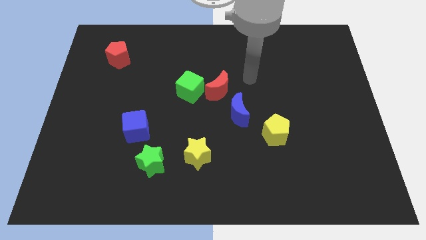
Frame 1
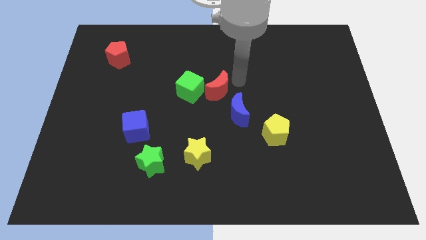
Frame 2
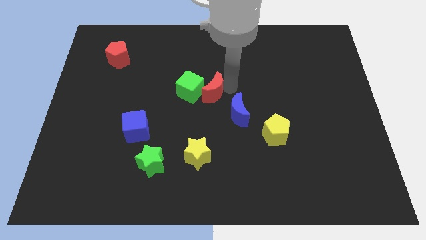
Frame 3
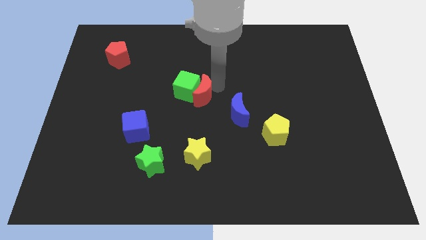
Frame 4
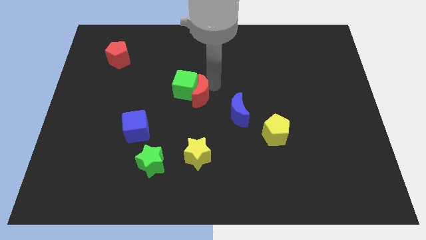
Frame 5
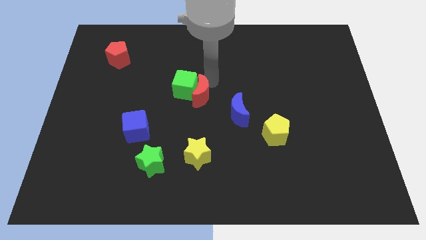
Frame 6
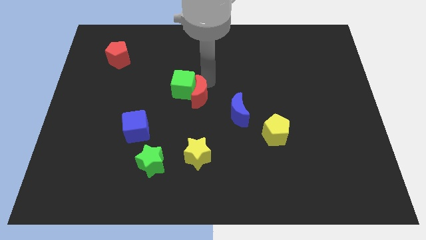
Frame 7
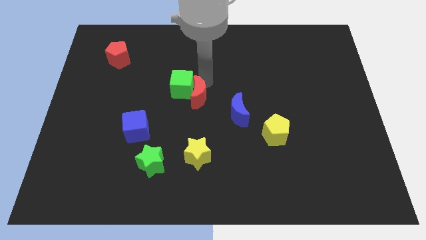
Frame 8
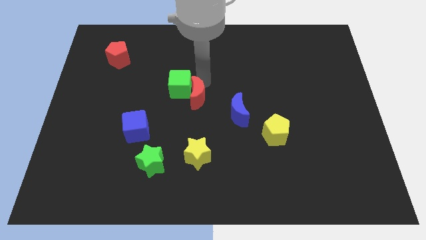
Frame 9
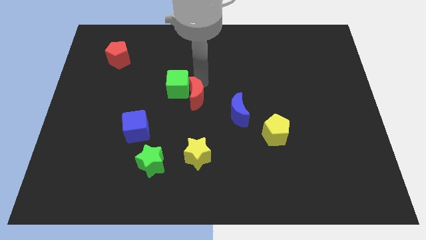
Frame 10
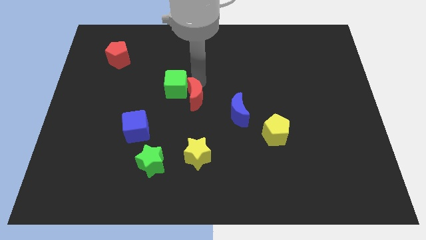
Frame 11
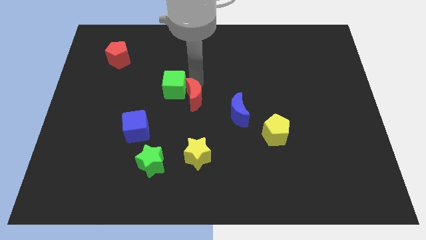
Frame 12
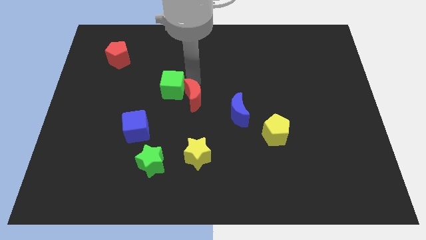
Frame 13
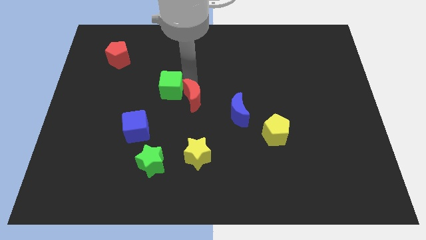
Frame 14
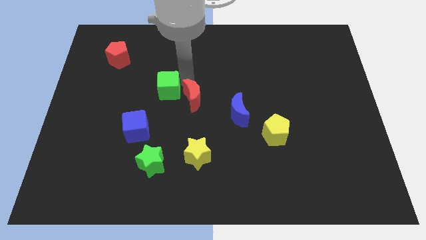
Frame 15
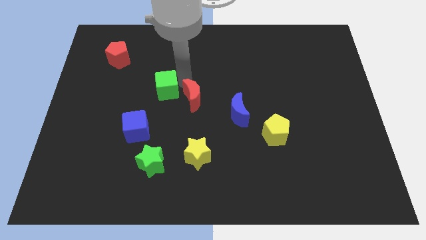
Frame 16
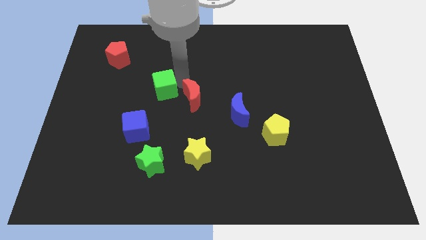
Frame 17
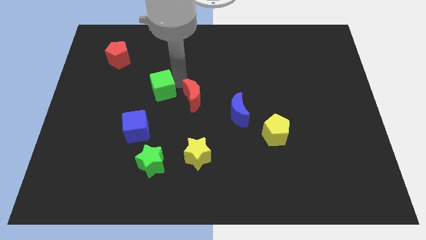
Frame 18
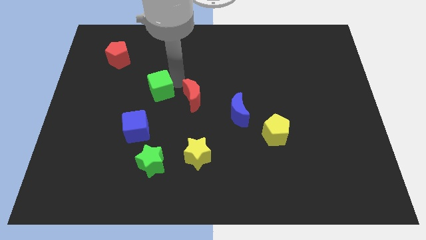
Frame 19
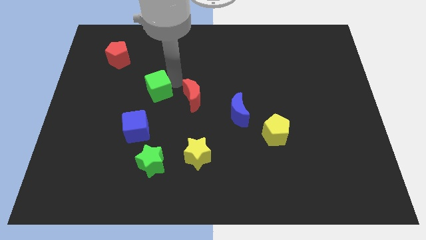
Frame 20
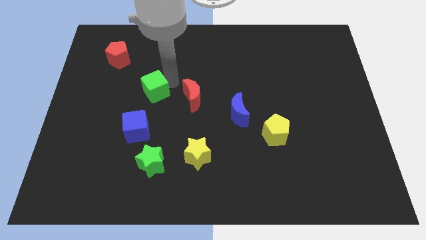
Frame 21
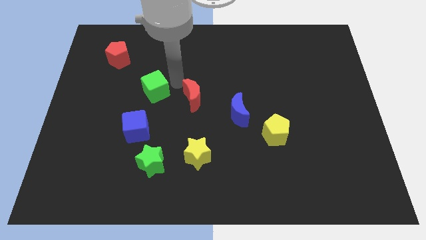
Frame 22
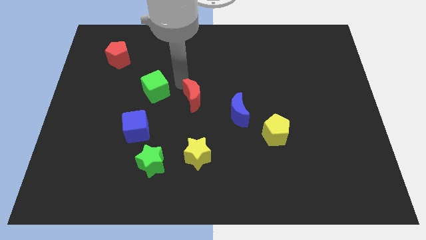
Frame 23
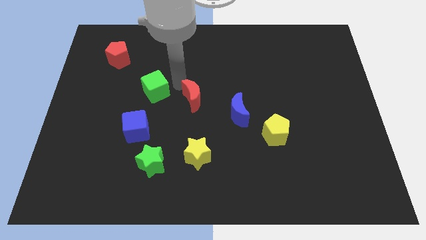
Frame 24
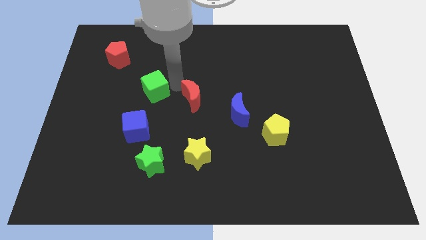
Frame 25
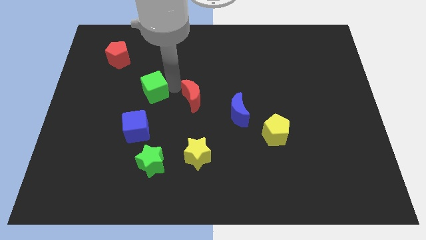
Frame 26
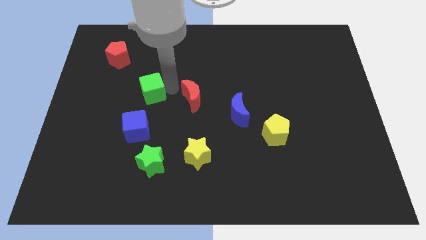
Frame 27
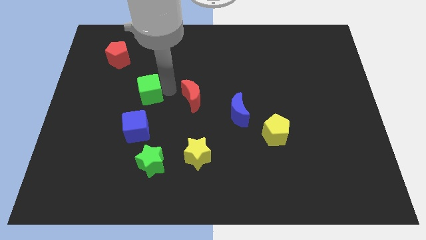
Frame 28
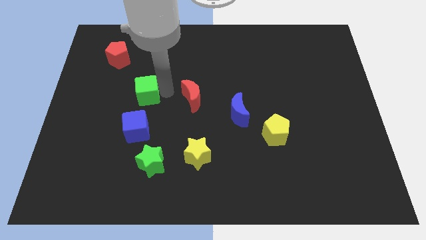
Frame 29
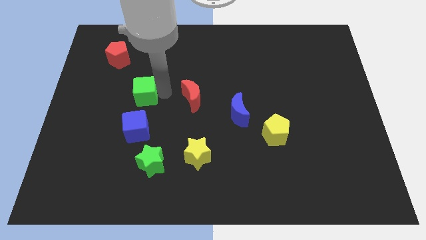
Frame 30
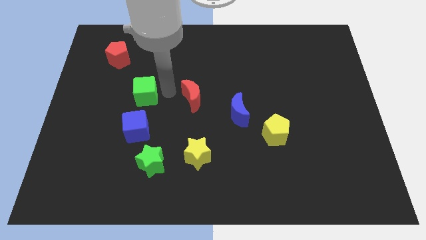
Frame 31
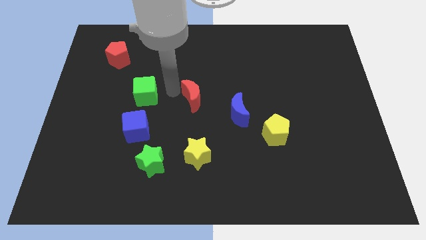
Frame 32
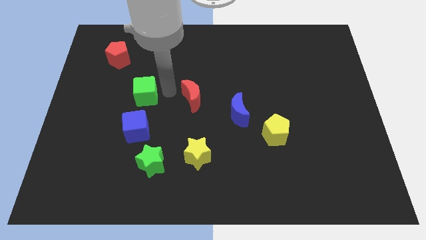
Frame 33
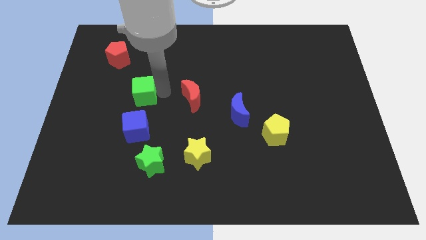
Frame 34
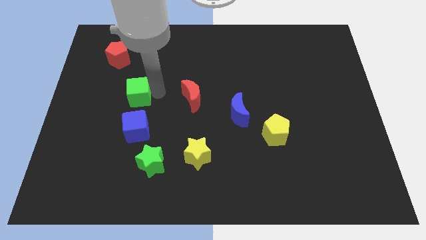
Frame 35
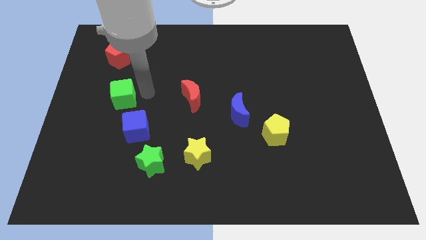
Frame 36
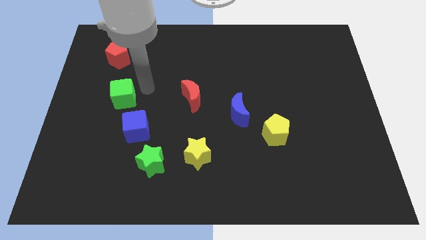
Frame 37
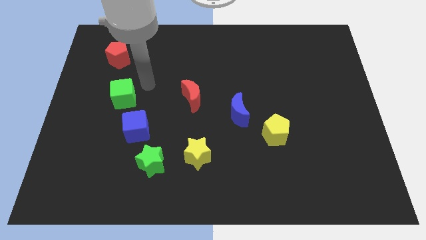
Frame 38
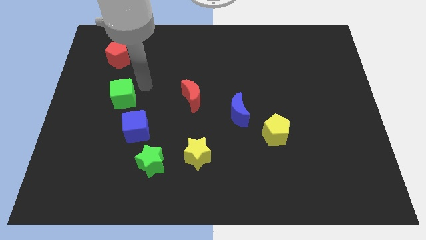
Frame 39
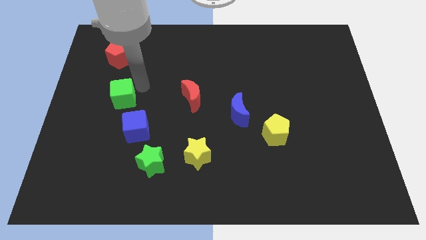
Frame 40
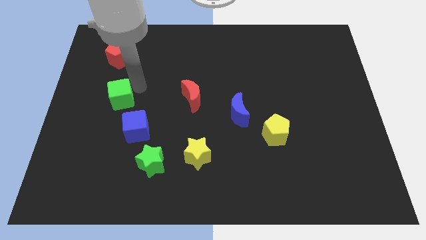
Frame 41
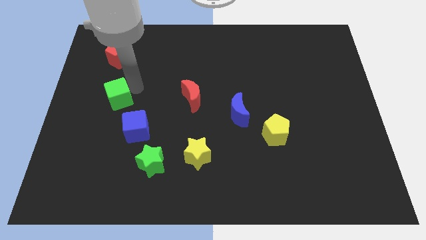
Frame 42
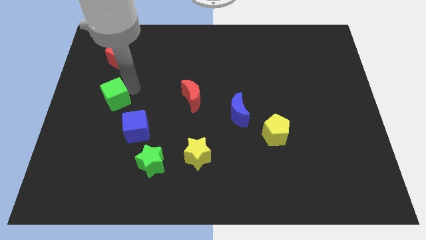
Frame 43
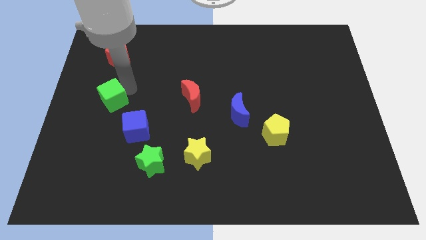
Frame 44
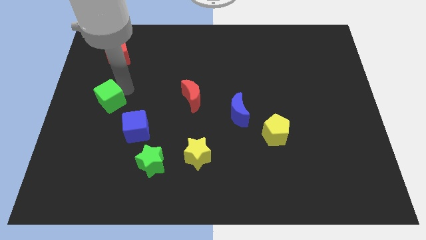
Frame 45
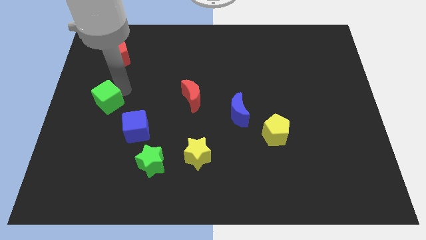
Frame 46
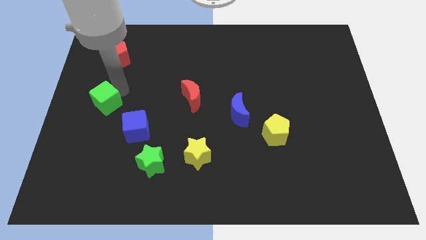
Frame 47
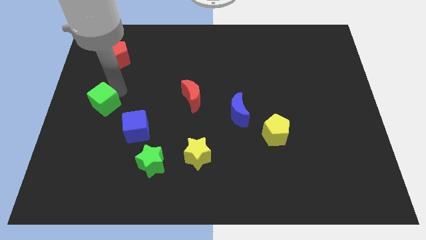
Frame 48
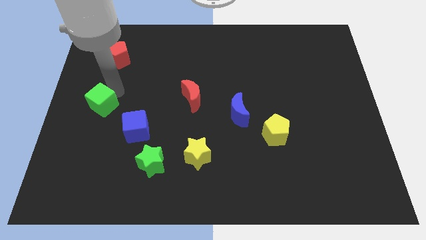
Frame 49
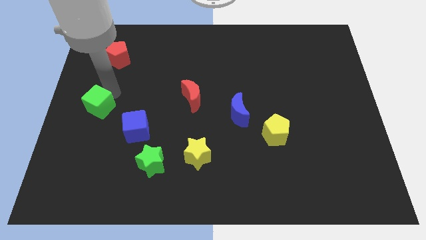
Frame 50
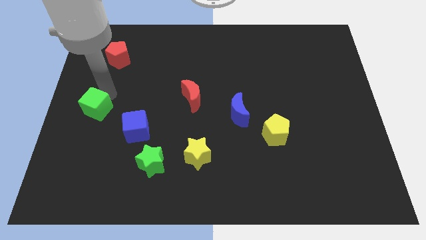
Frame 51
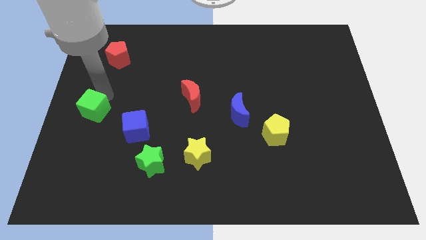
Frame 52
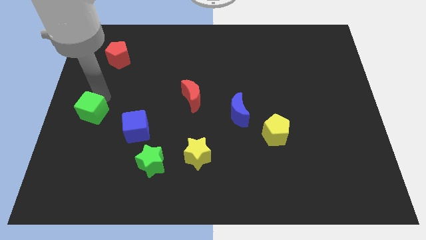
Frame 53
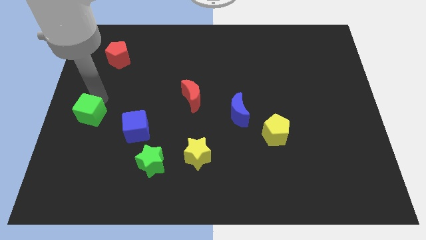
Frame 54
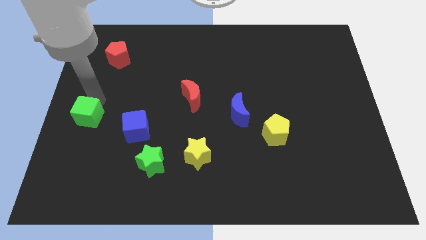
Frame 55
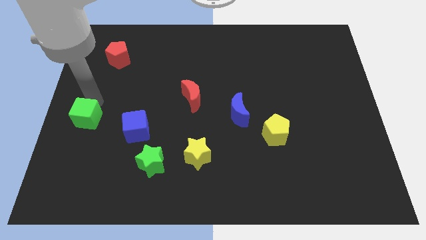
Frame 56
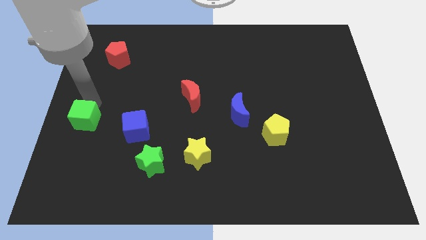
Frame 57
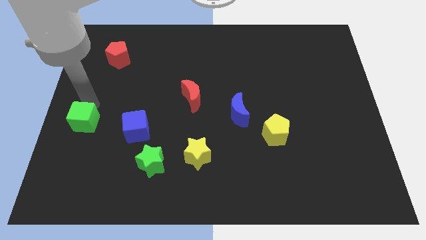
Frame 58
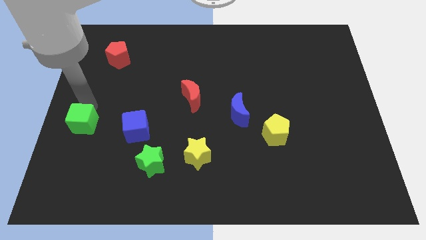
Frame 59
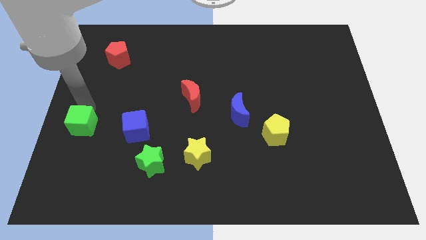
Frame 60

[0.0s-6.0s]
move the green cube diagonally downwards and to the left

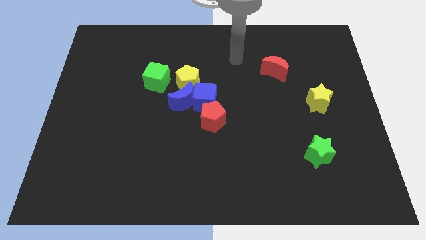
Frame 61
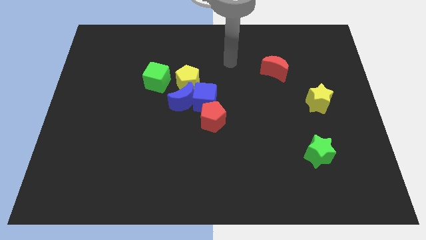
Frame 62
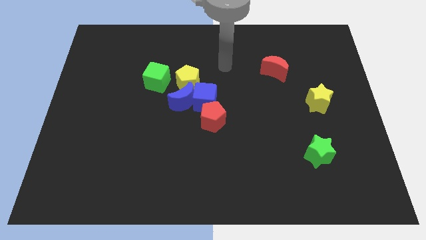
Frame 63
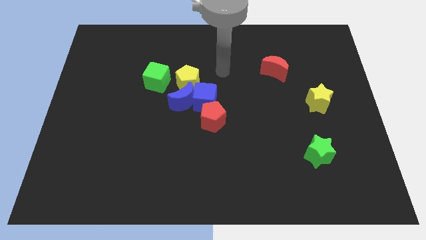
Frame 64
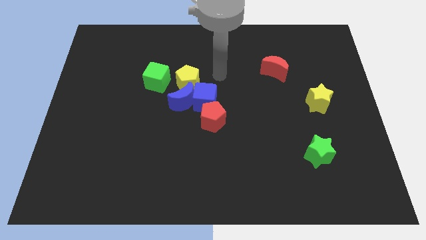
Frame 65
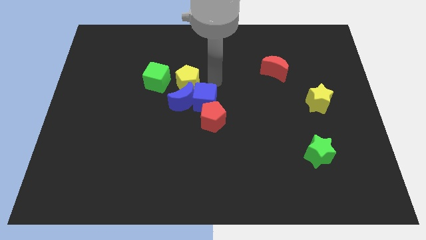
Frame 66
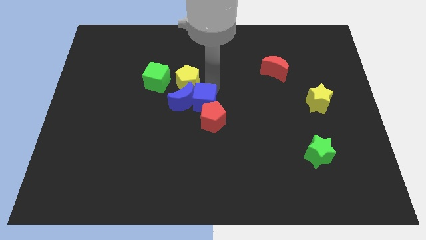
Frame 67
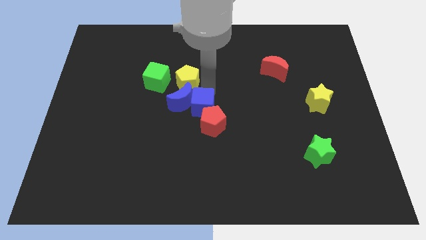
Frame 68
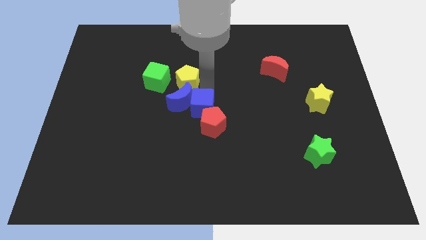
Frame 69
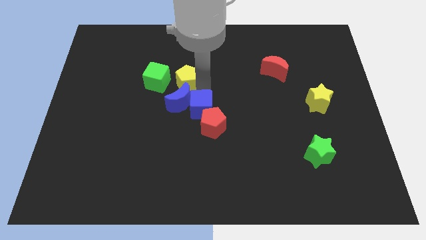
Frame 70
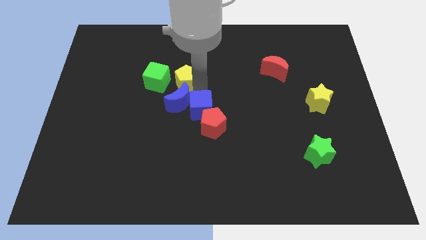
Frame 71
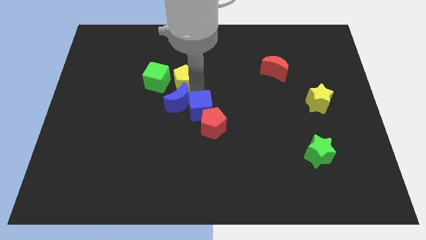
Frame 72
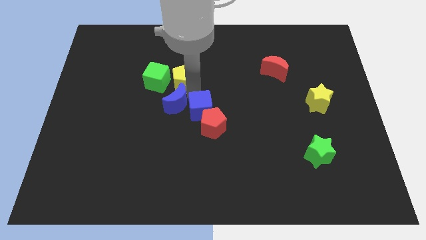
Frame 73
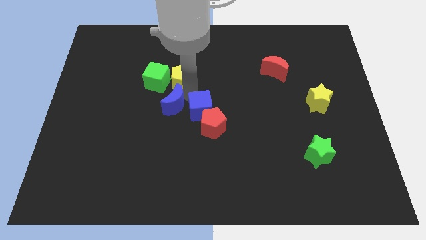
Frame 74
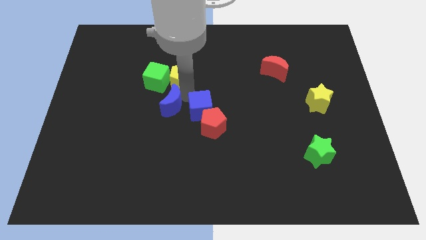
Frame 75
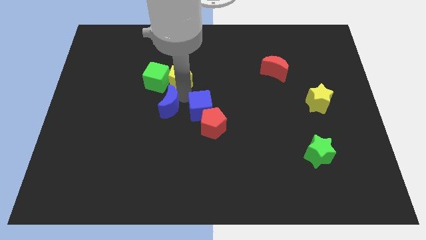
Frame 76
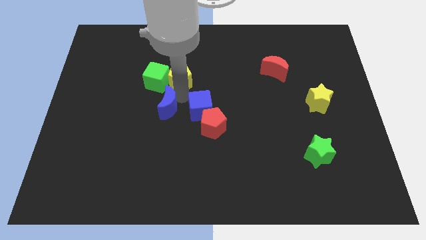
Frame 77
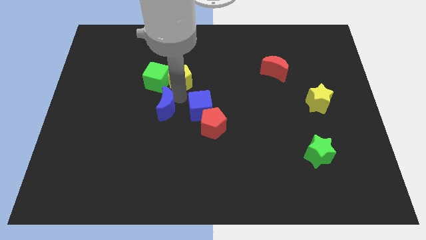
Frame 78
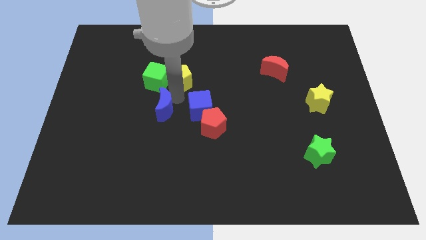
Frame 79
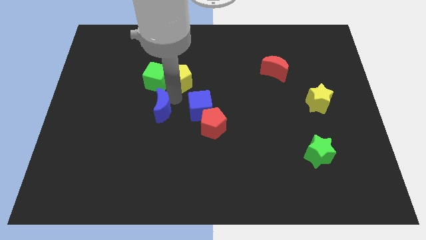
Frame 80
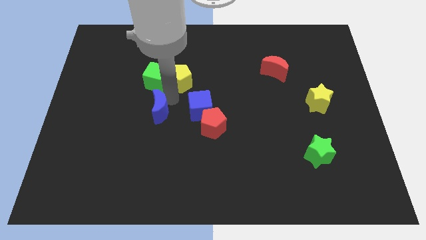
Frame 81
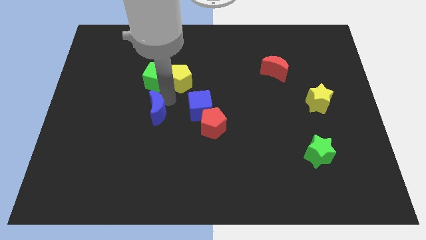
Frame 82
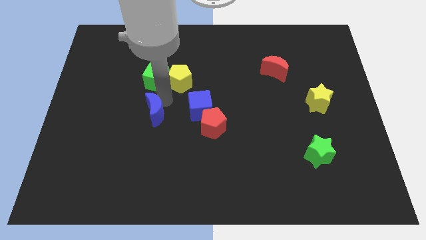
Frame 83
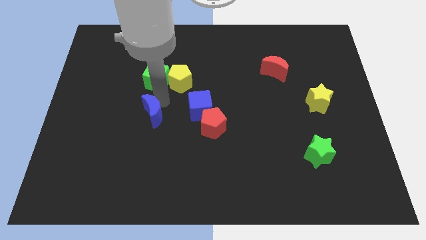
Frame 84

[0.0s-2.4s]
slightly push the blue moon diagonally downwards and left

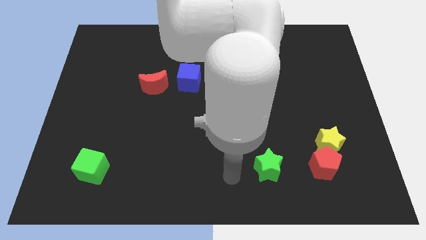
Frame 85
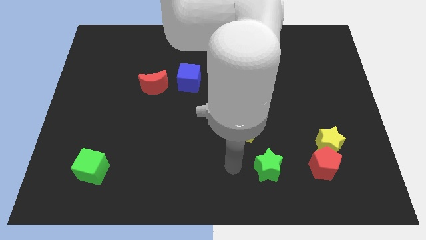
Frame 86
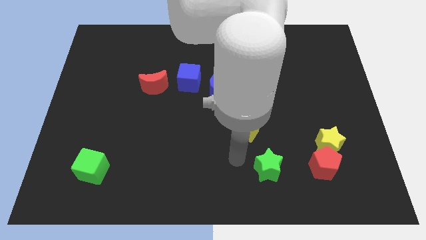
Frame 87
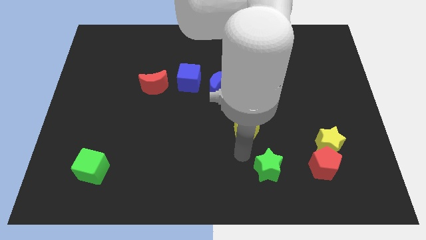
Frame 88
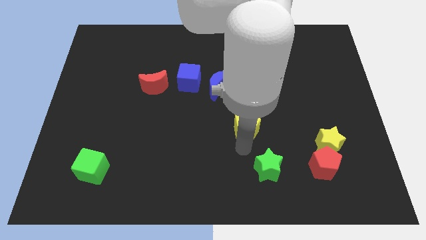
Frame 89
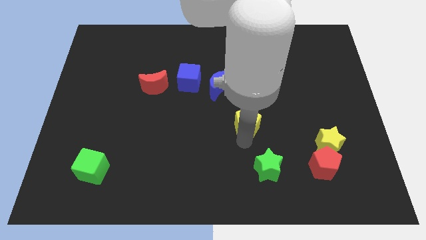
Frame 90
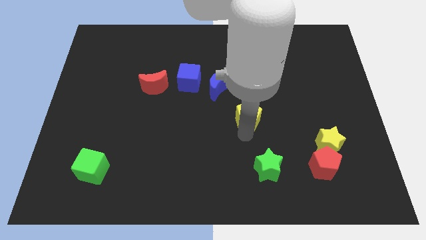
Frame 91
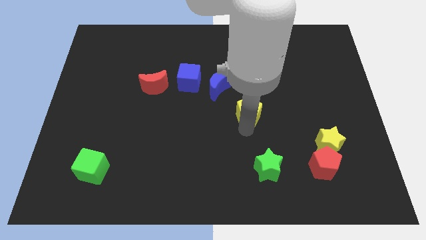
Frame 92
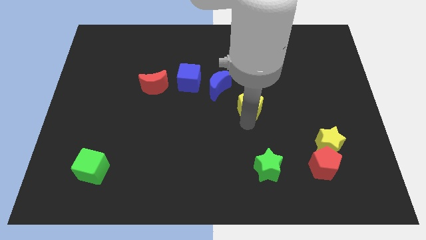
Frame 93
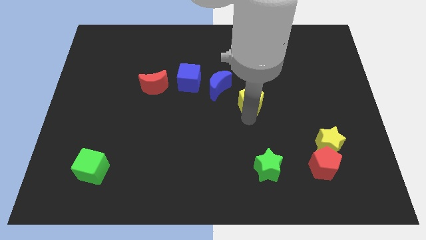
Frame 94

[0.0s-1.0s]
slide the yellow pentagon a bit upwards
